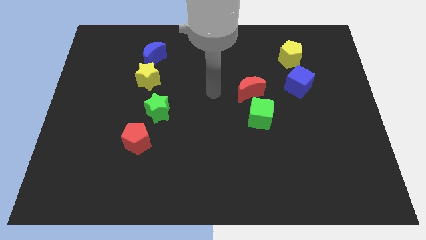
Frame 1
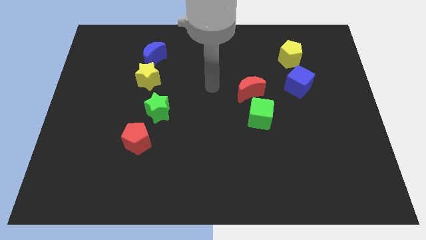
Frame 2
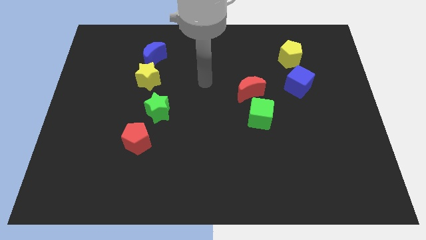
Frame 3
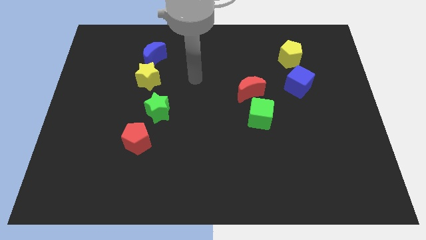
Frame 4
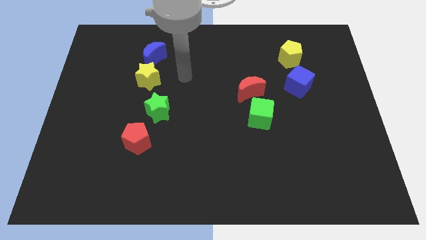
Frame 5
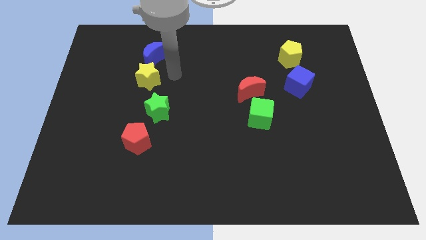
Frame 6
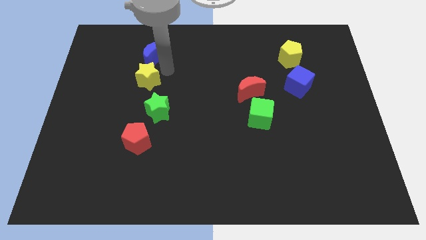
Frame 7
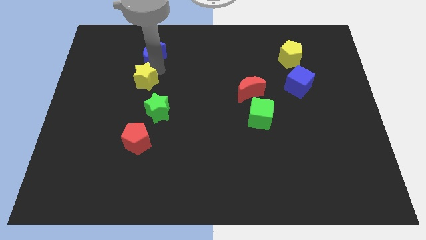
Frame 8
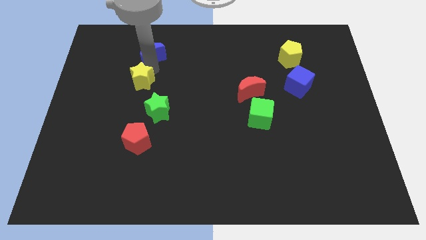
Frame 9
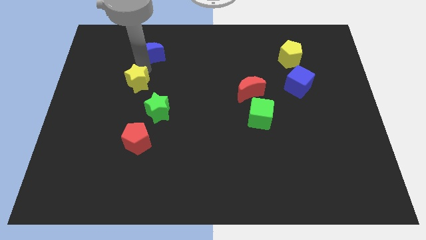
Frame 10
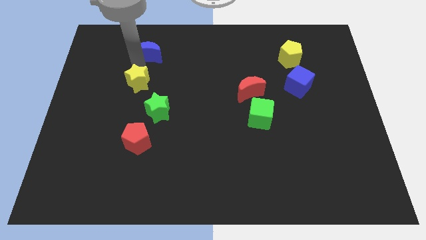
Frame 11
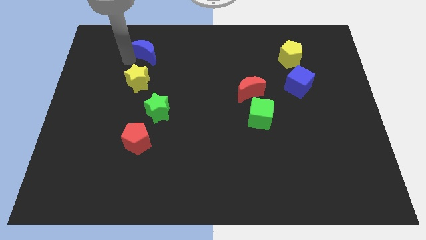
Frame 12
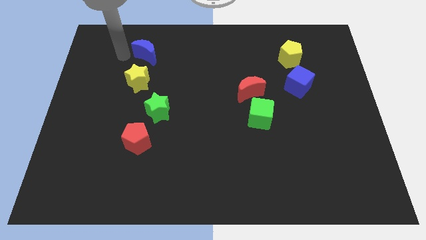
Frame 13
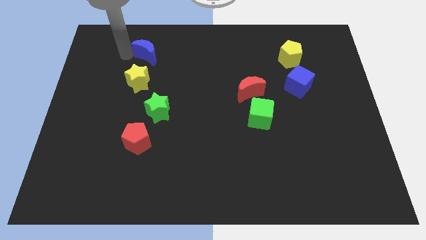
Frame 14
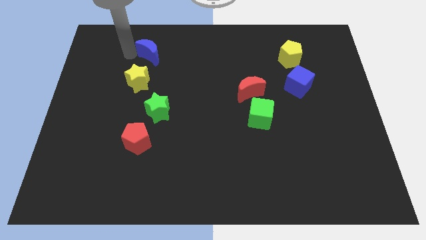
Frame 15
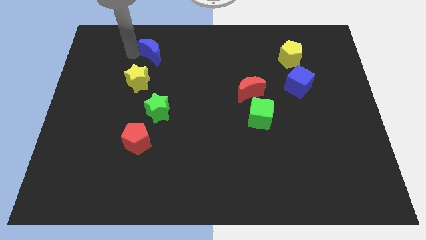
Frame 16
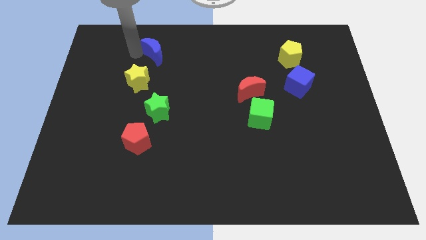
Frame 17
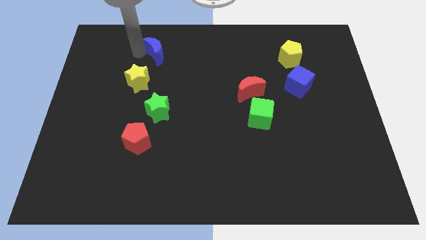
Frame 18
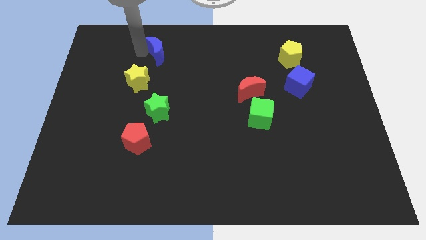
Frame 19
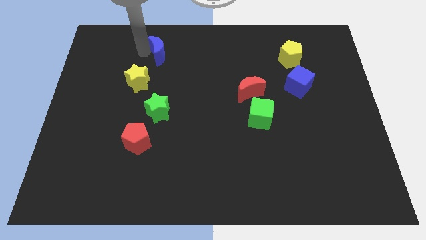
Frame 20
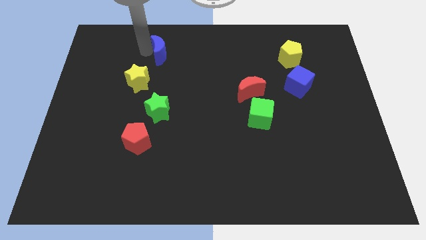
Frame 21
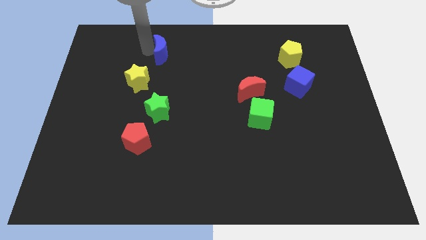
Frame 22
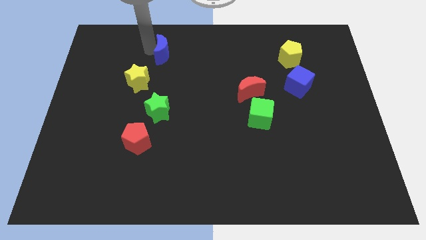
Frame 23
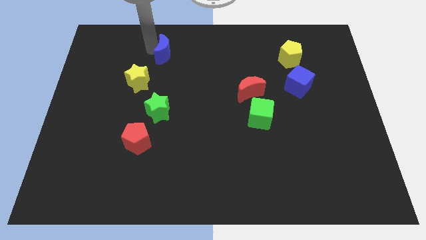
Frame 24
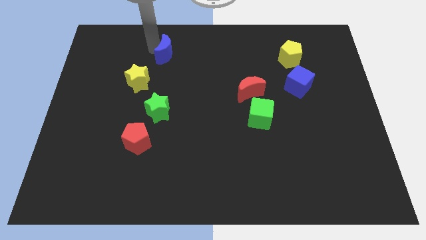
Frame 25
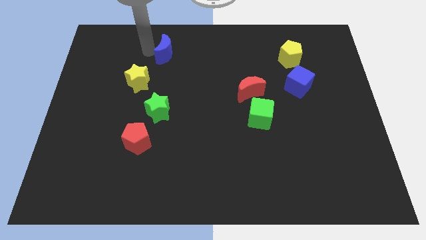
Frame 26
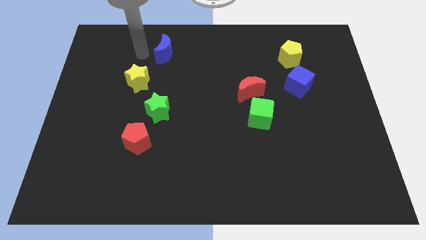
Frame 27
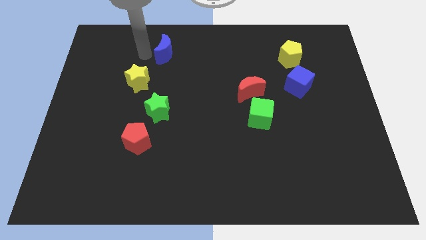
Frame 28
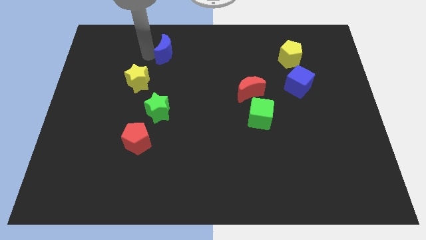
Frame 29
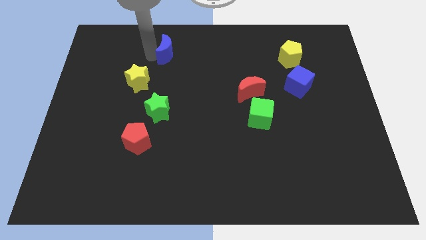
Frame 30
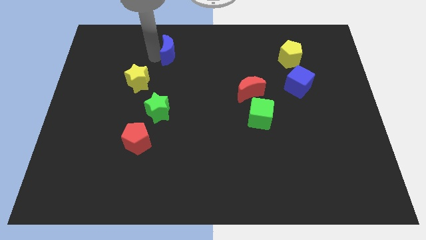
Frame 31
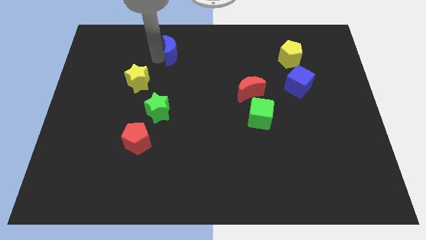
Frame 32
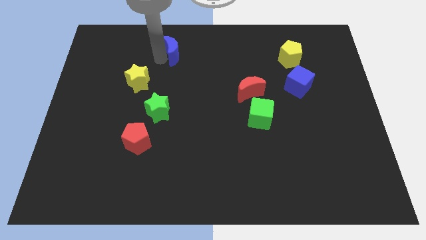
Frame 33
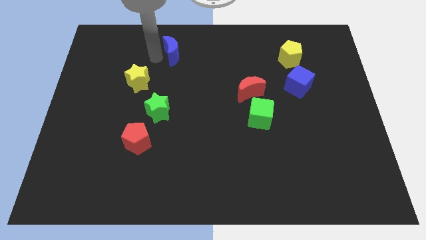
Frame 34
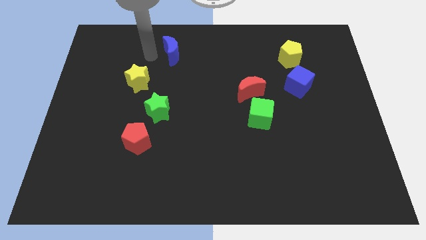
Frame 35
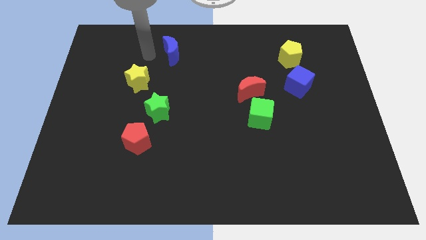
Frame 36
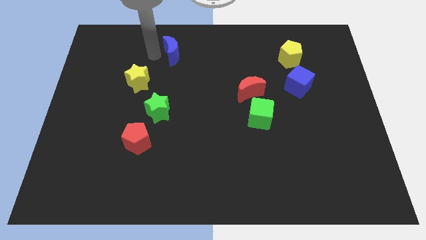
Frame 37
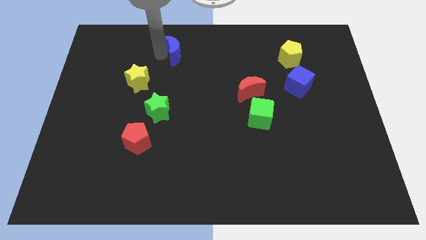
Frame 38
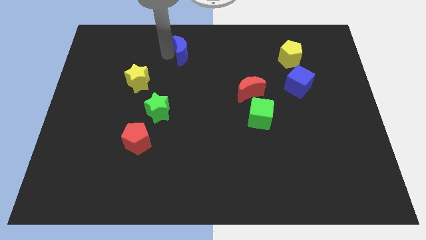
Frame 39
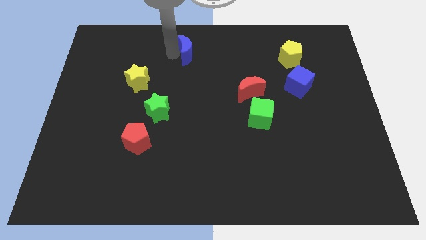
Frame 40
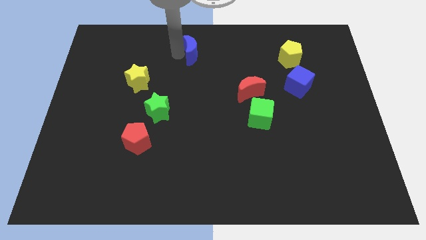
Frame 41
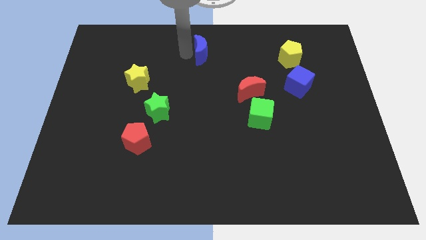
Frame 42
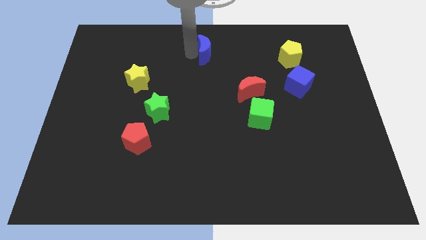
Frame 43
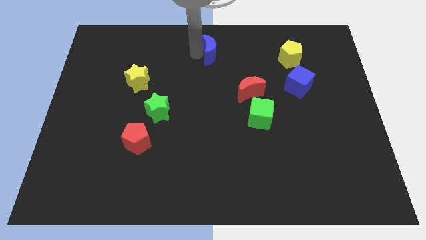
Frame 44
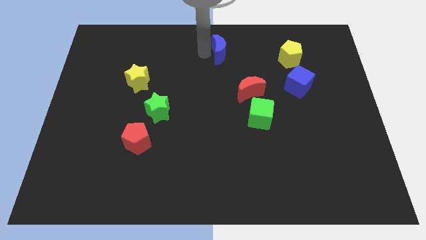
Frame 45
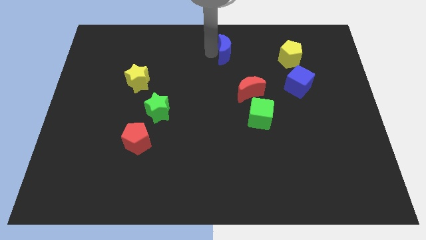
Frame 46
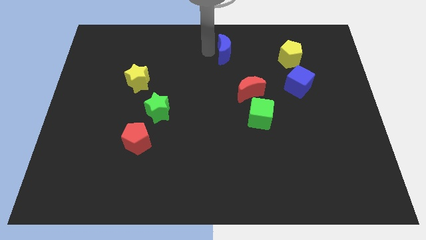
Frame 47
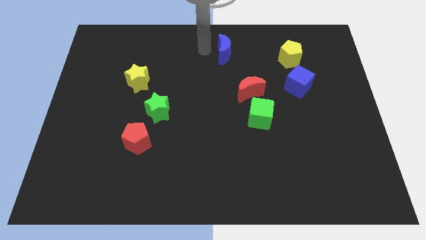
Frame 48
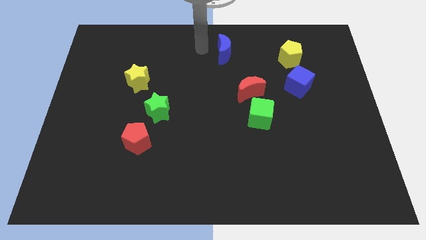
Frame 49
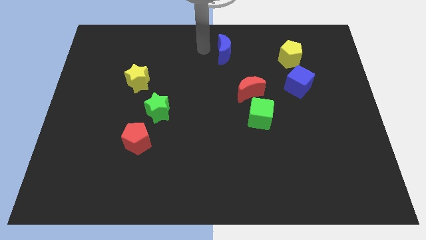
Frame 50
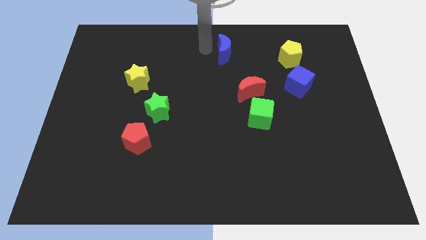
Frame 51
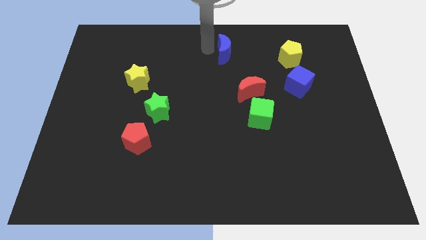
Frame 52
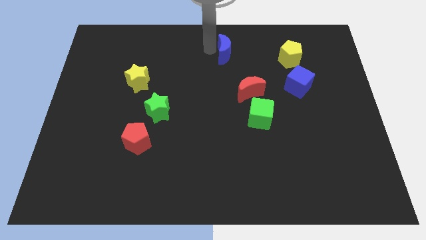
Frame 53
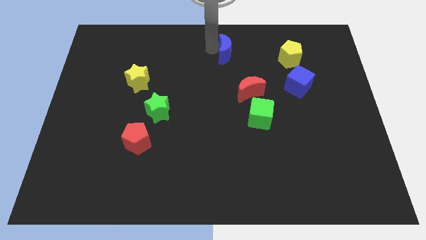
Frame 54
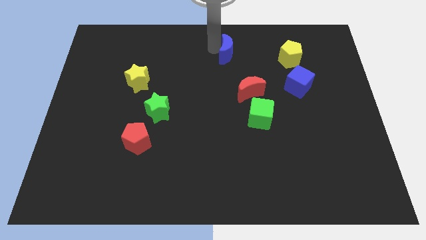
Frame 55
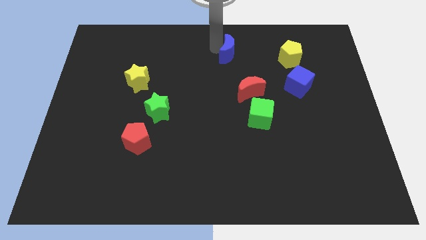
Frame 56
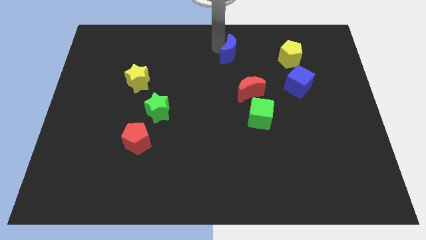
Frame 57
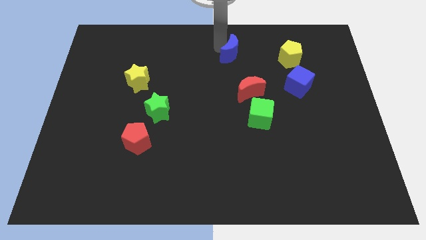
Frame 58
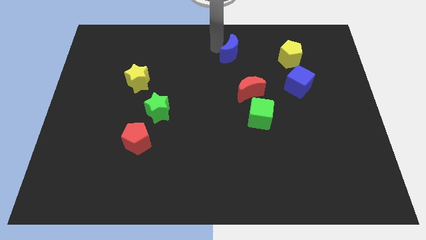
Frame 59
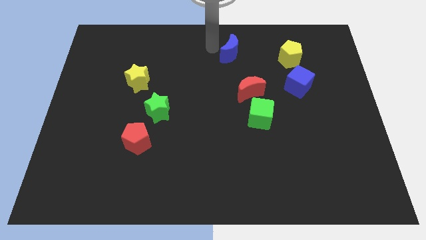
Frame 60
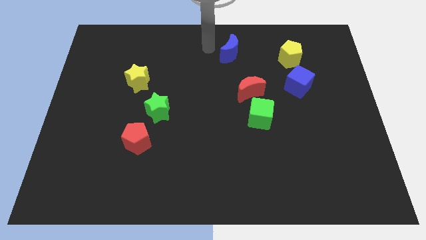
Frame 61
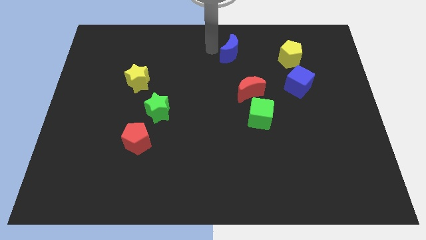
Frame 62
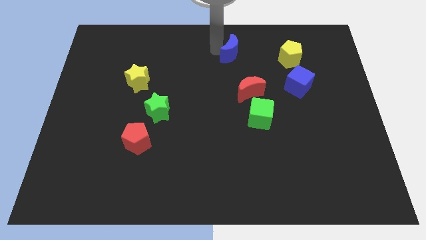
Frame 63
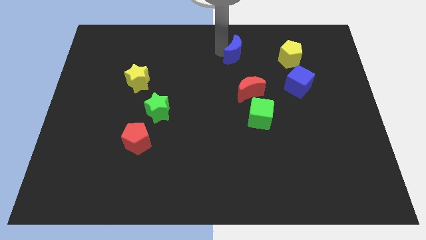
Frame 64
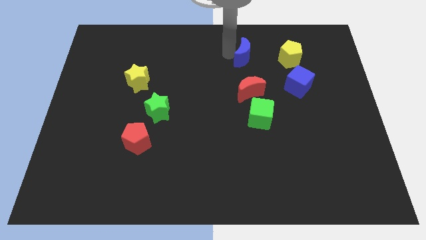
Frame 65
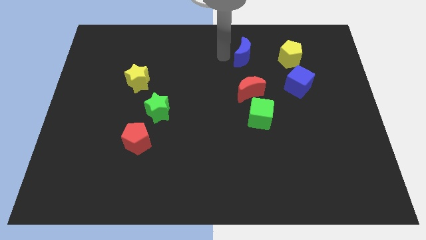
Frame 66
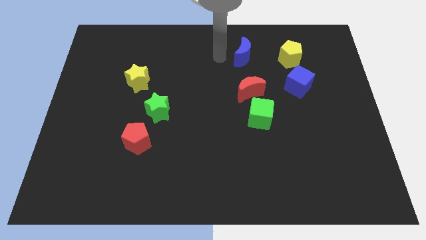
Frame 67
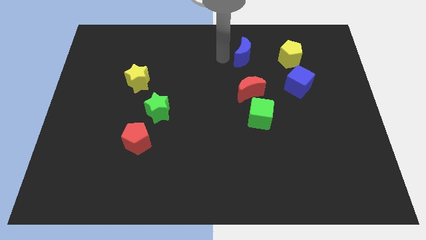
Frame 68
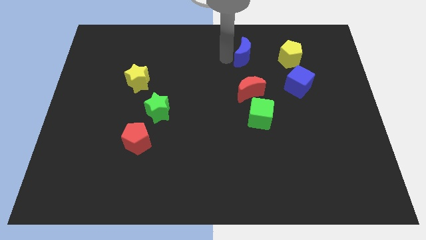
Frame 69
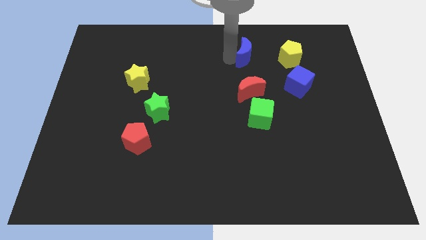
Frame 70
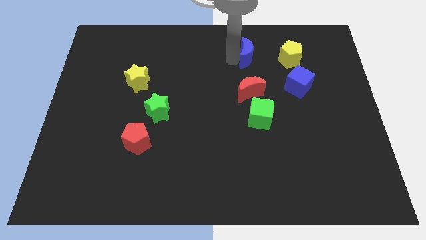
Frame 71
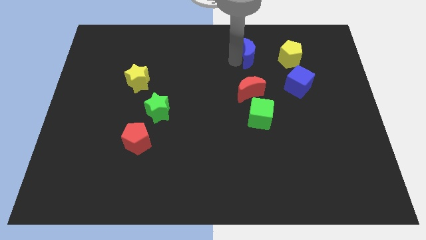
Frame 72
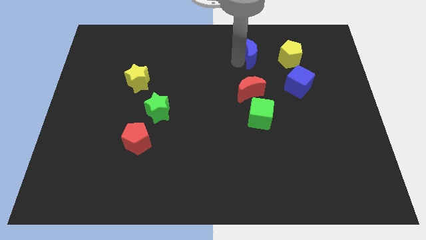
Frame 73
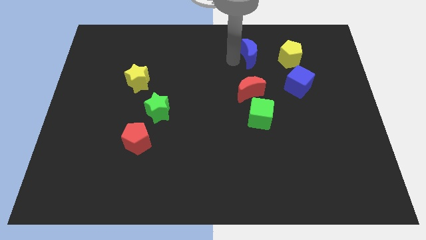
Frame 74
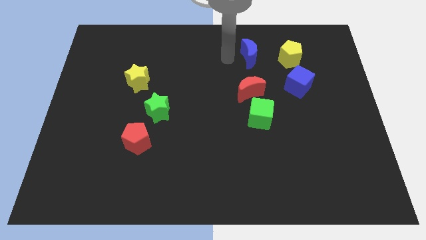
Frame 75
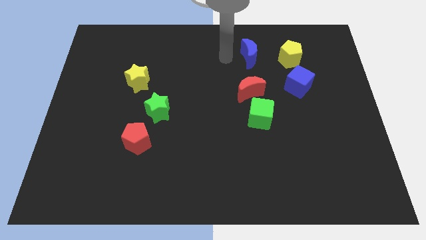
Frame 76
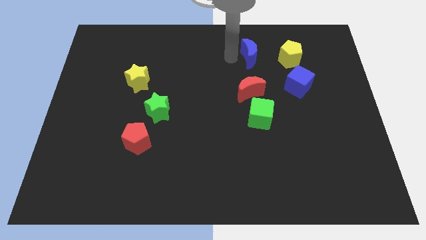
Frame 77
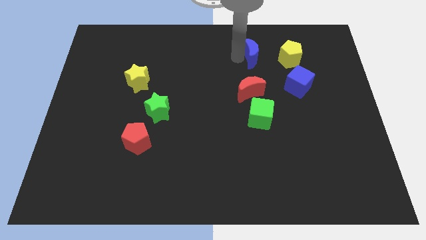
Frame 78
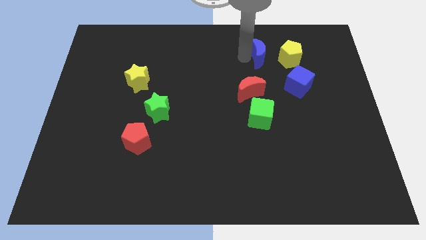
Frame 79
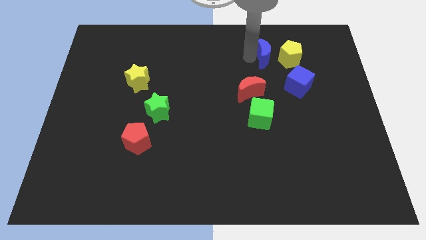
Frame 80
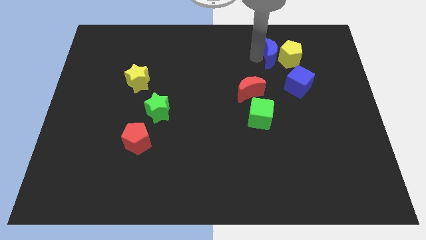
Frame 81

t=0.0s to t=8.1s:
push the blue moon next to the yellow pentagon
